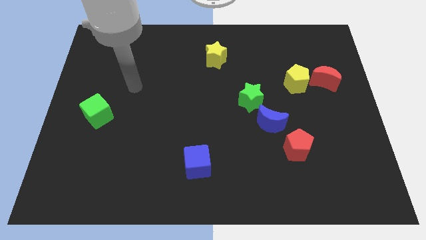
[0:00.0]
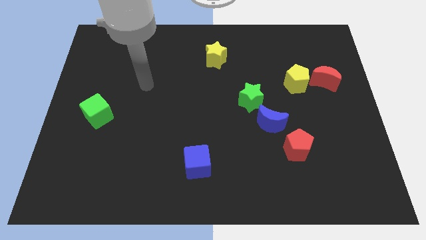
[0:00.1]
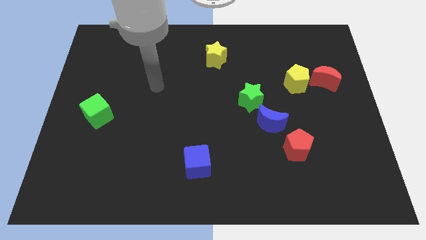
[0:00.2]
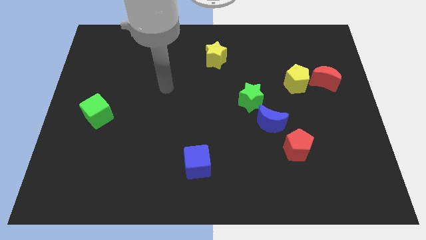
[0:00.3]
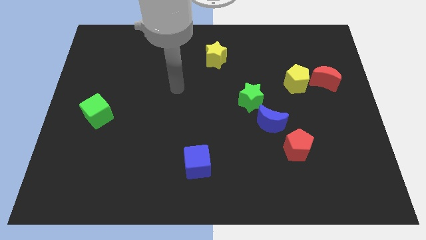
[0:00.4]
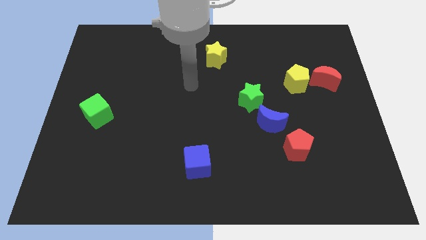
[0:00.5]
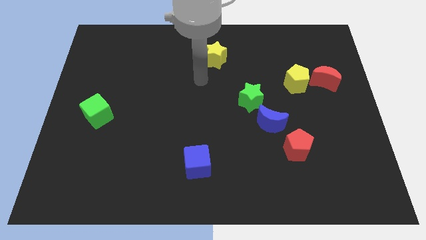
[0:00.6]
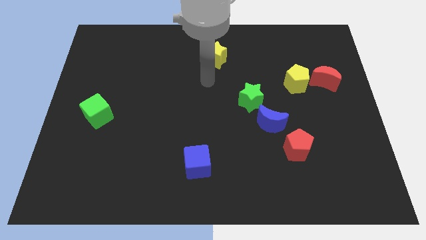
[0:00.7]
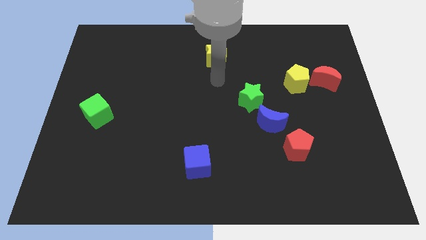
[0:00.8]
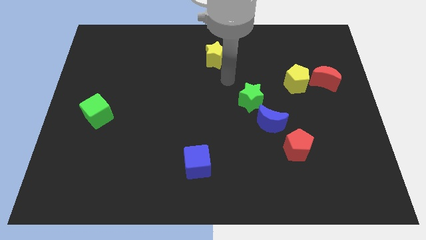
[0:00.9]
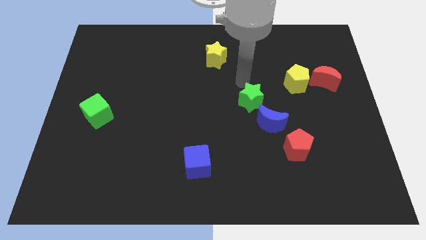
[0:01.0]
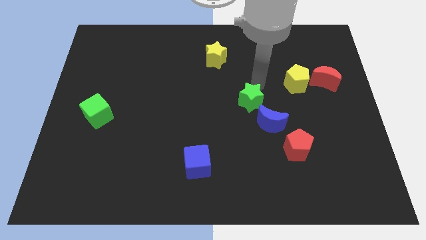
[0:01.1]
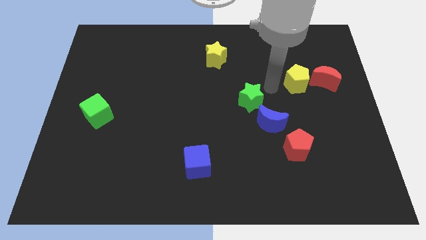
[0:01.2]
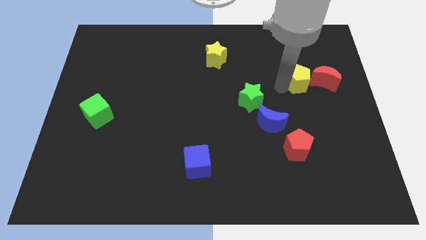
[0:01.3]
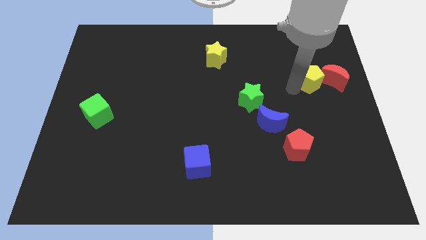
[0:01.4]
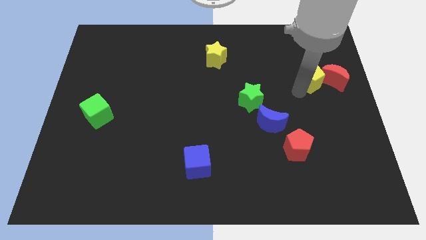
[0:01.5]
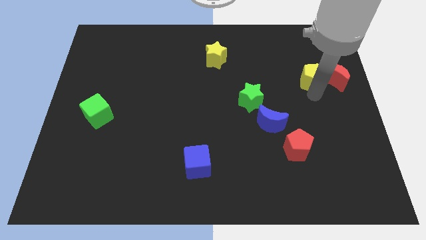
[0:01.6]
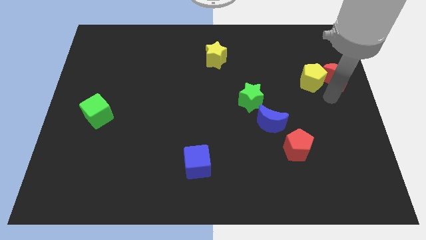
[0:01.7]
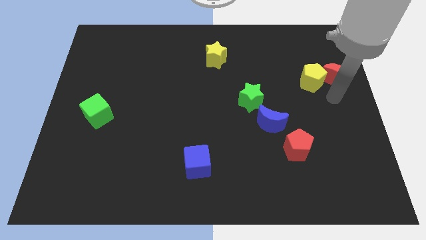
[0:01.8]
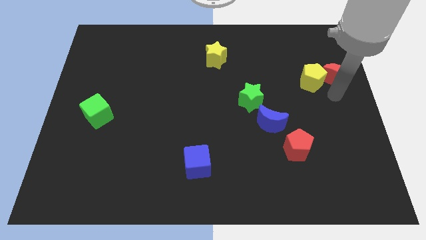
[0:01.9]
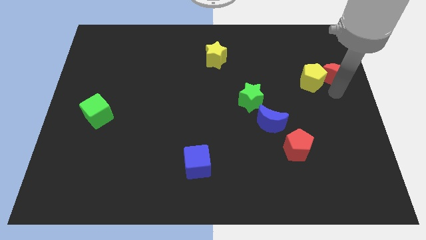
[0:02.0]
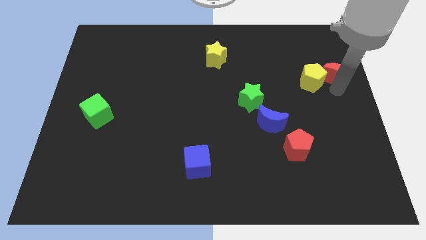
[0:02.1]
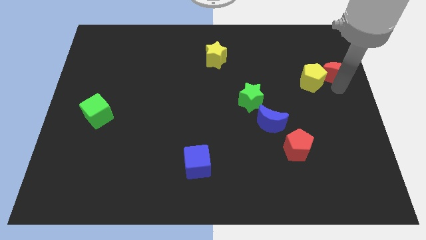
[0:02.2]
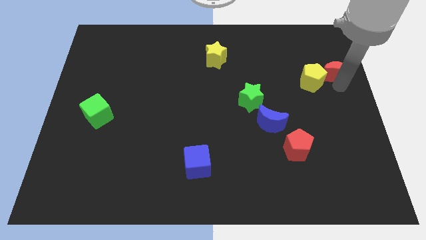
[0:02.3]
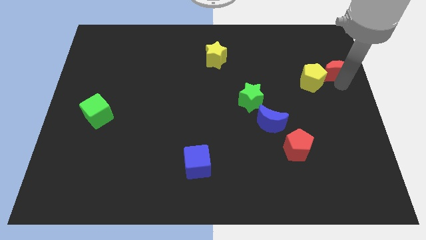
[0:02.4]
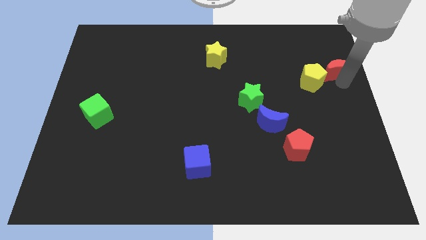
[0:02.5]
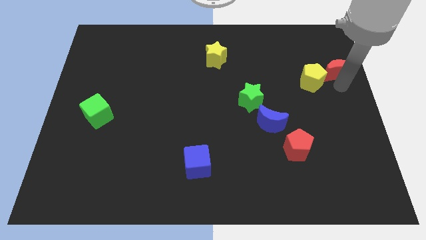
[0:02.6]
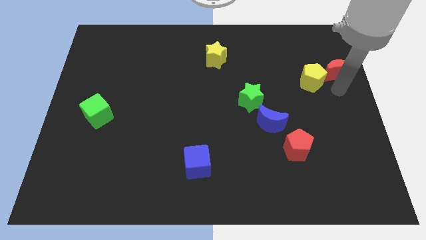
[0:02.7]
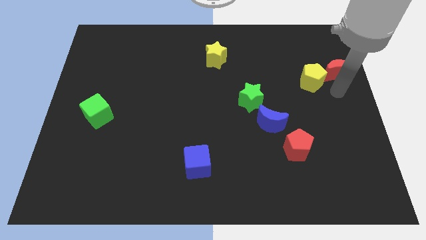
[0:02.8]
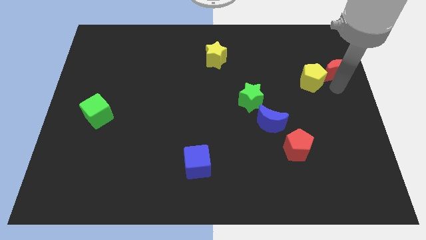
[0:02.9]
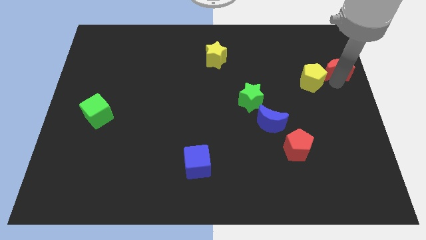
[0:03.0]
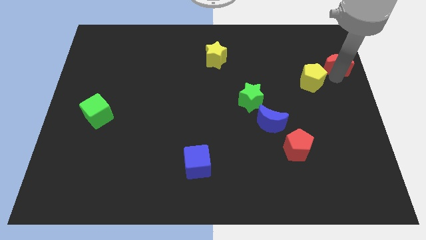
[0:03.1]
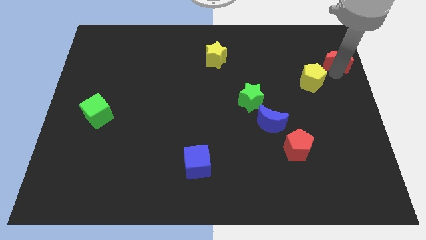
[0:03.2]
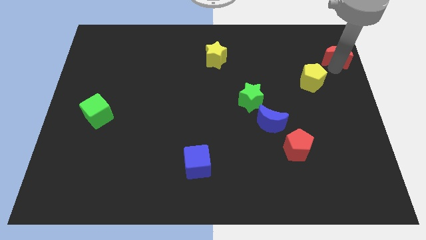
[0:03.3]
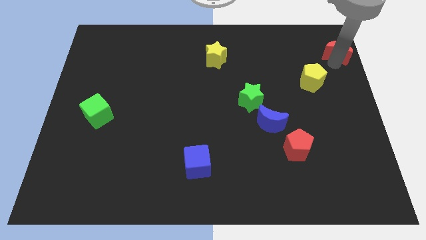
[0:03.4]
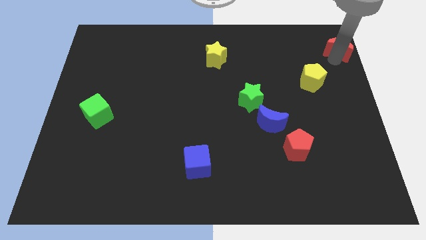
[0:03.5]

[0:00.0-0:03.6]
push the red moon to the top right of the board

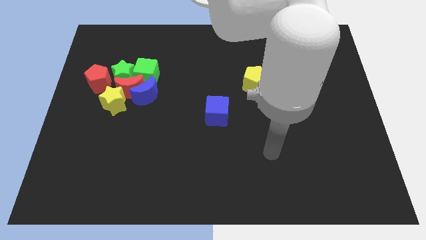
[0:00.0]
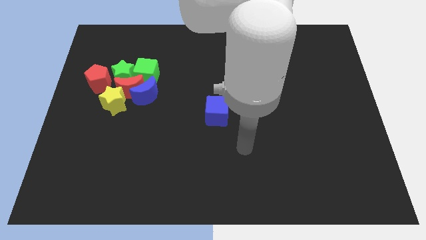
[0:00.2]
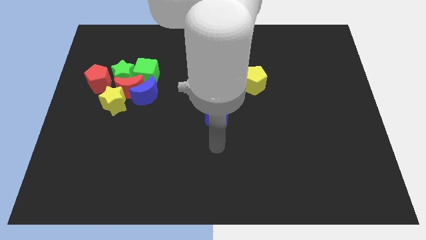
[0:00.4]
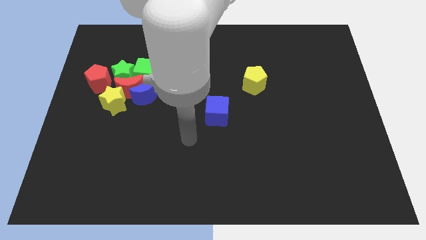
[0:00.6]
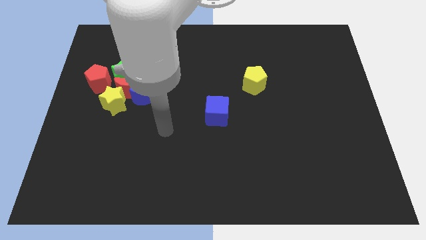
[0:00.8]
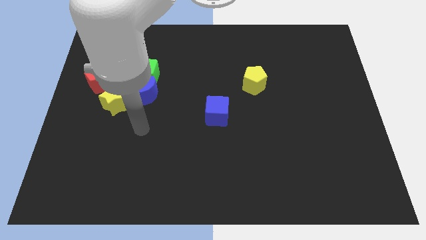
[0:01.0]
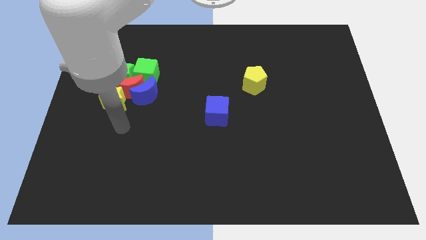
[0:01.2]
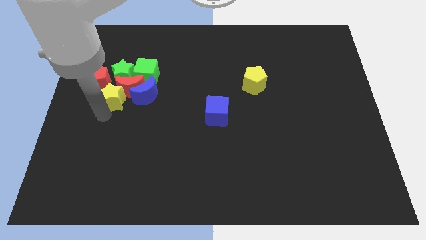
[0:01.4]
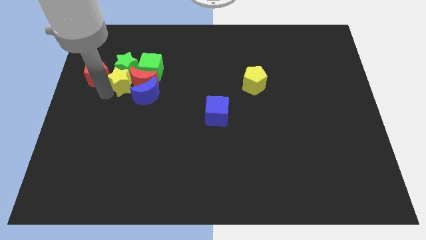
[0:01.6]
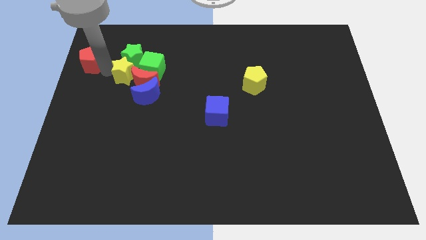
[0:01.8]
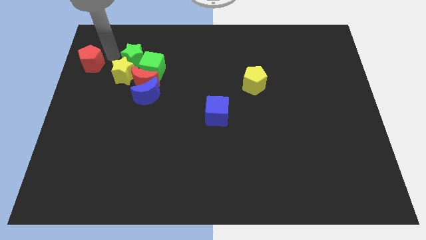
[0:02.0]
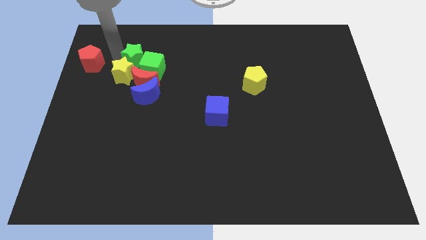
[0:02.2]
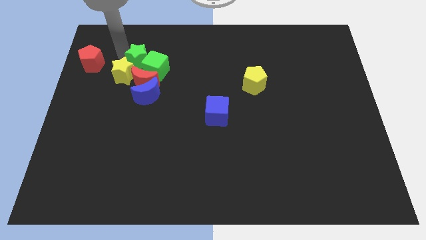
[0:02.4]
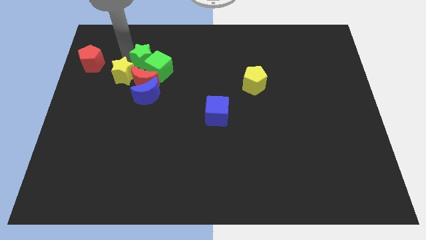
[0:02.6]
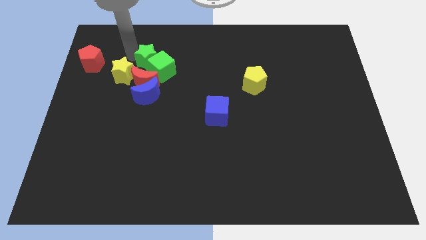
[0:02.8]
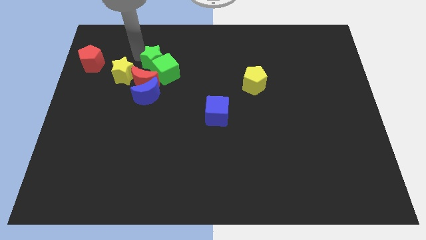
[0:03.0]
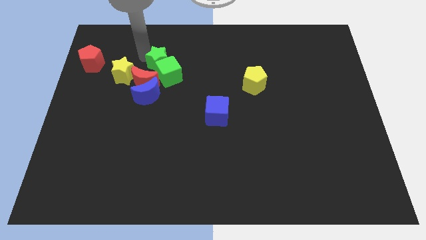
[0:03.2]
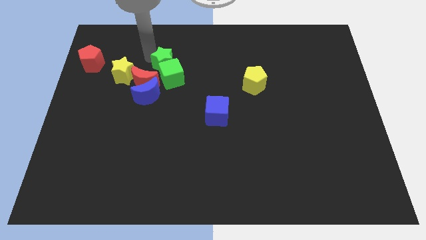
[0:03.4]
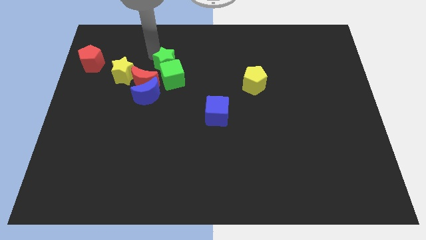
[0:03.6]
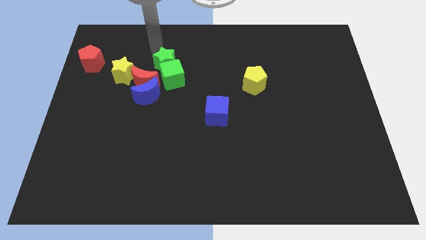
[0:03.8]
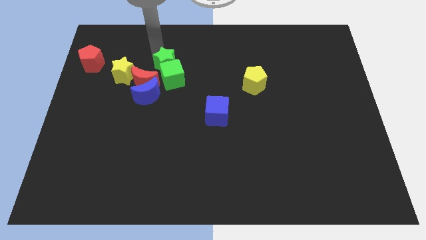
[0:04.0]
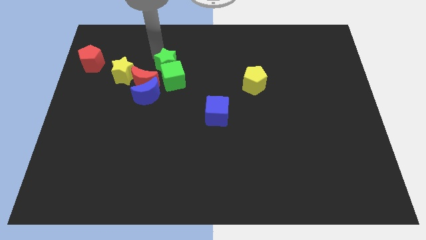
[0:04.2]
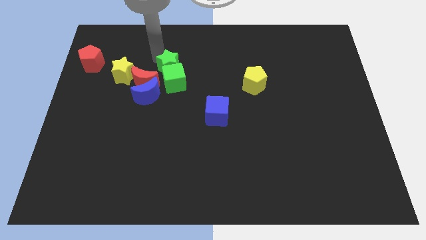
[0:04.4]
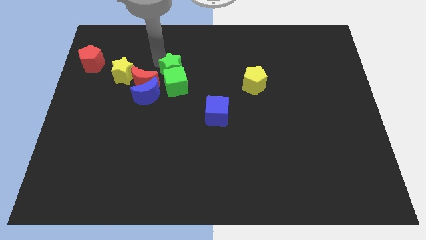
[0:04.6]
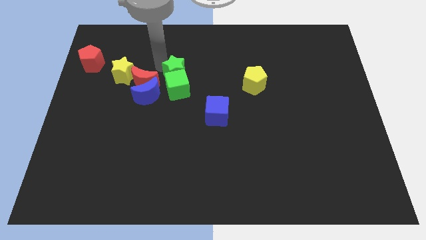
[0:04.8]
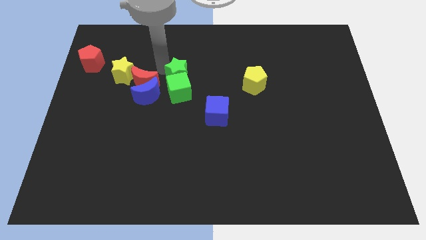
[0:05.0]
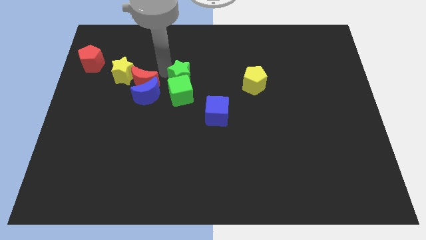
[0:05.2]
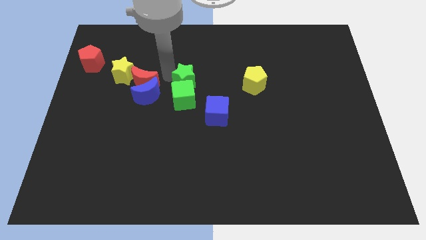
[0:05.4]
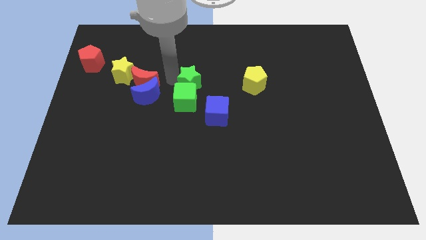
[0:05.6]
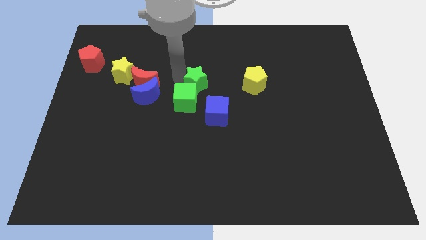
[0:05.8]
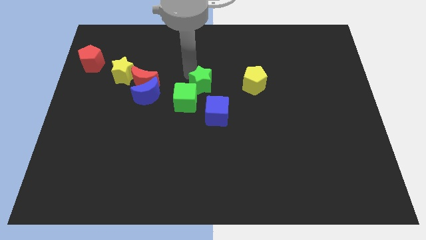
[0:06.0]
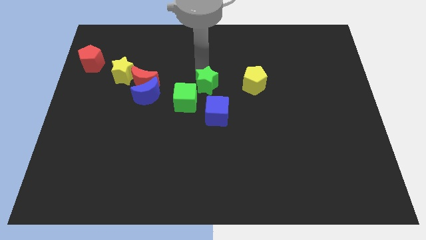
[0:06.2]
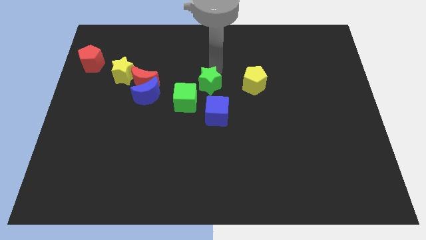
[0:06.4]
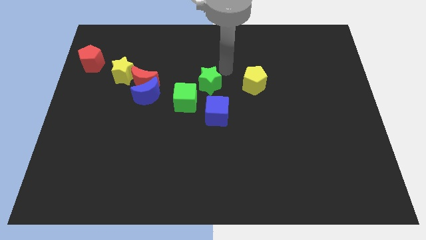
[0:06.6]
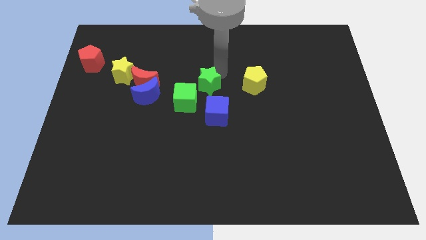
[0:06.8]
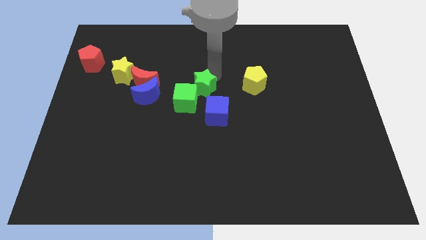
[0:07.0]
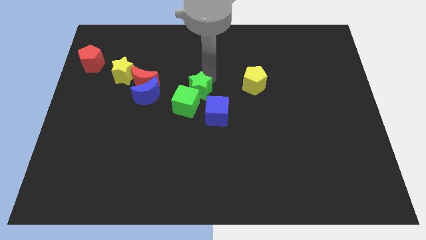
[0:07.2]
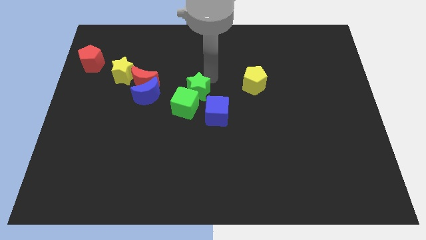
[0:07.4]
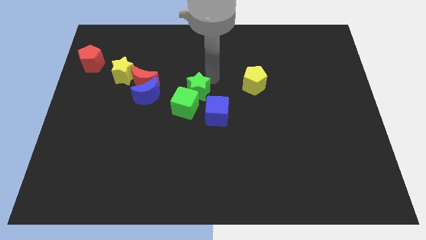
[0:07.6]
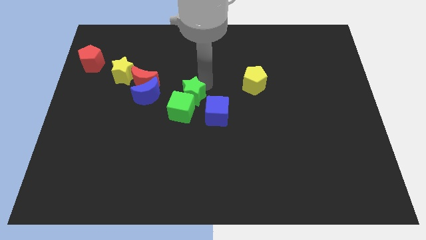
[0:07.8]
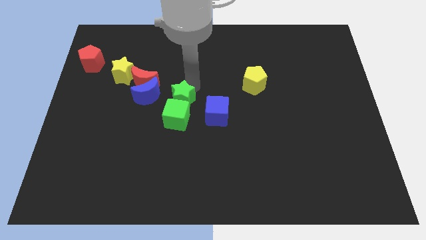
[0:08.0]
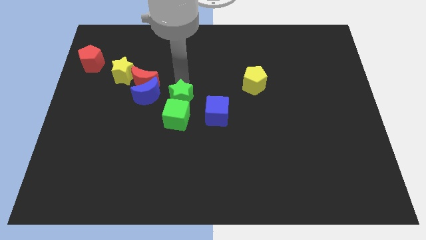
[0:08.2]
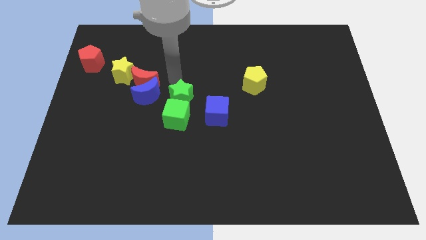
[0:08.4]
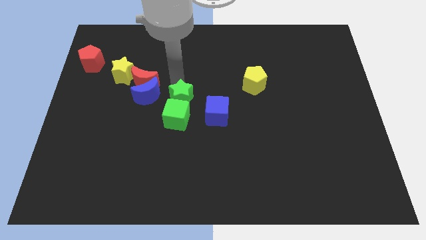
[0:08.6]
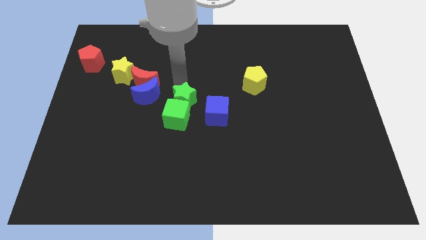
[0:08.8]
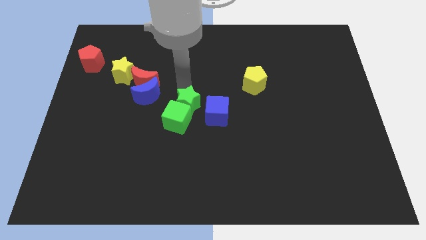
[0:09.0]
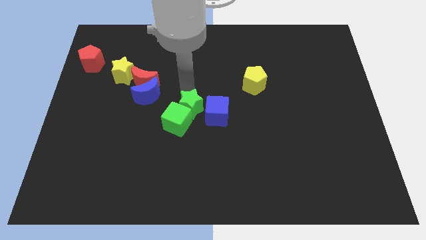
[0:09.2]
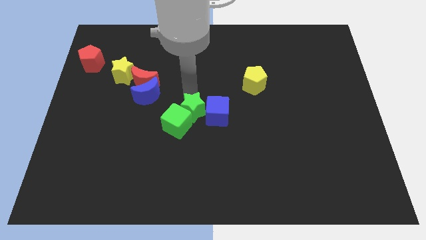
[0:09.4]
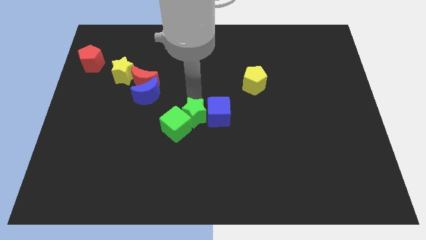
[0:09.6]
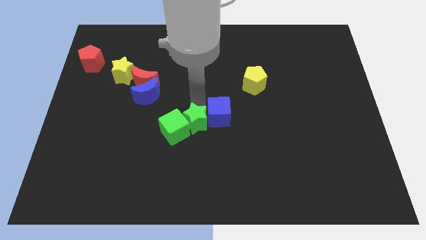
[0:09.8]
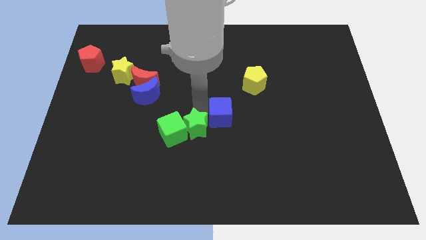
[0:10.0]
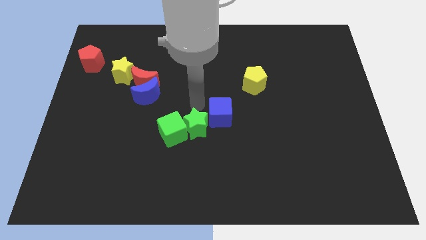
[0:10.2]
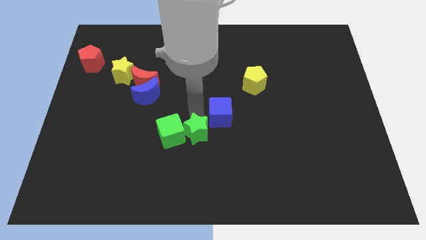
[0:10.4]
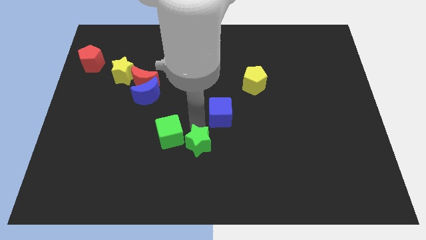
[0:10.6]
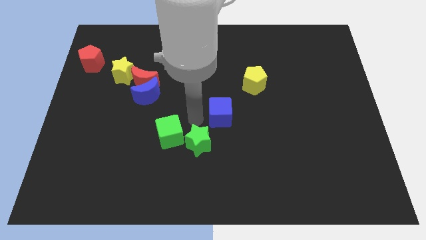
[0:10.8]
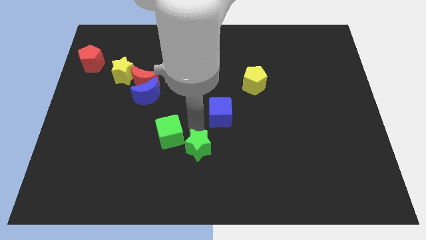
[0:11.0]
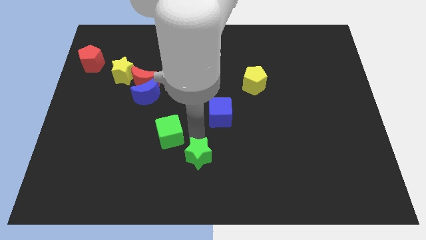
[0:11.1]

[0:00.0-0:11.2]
put the green star to the bottom side
